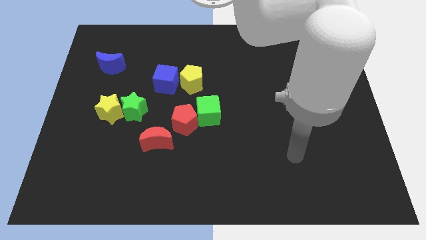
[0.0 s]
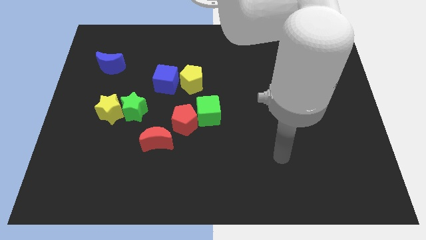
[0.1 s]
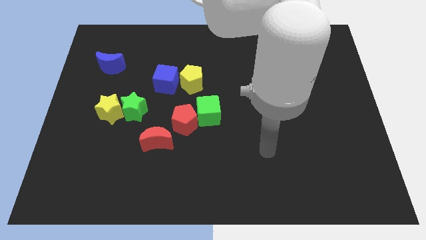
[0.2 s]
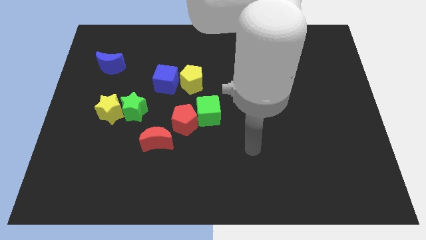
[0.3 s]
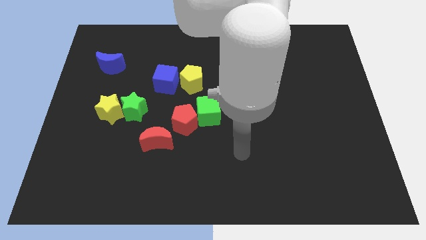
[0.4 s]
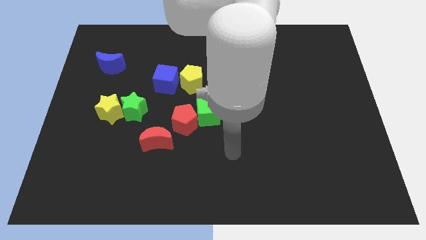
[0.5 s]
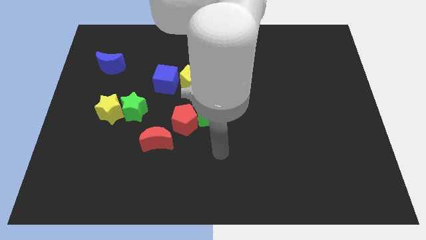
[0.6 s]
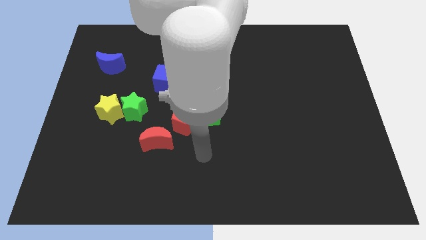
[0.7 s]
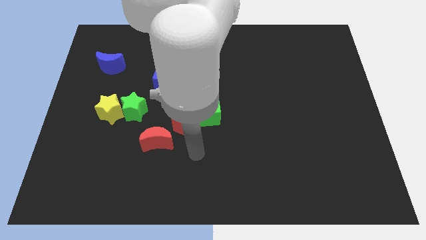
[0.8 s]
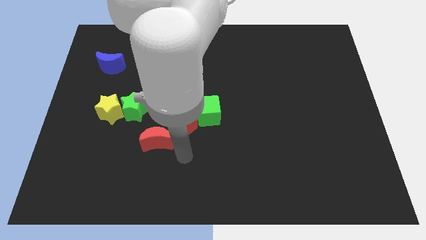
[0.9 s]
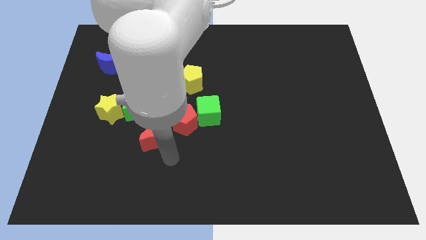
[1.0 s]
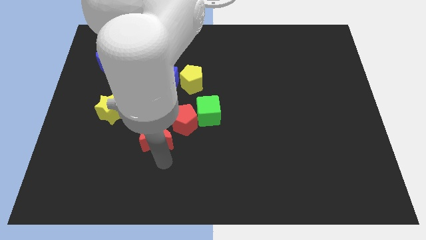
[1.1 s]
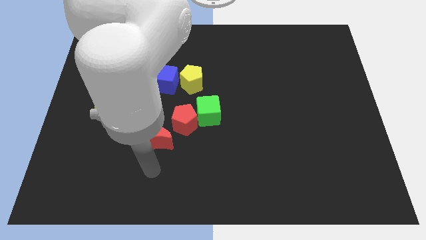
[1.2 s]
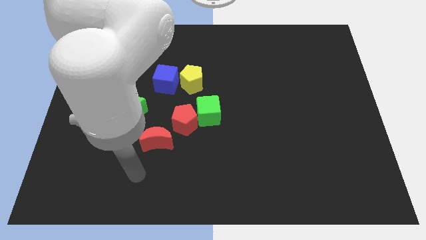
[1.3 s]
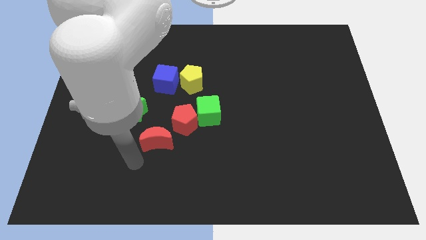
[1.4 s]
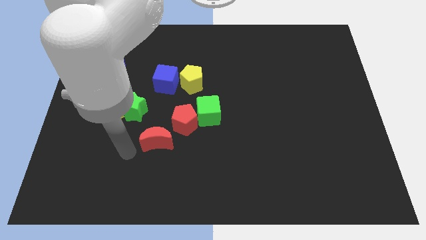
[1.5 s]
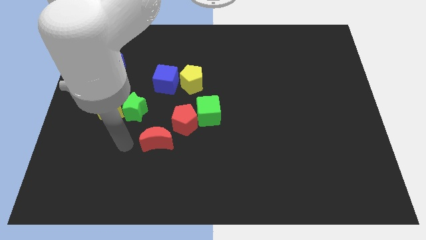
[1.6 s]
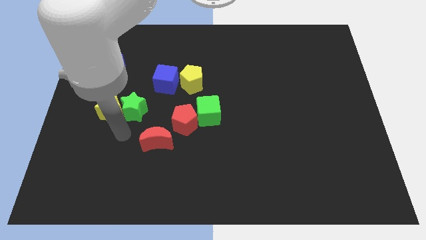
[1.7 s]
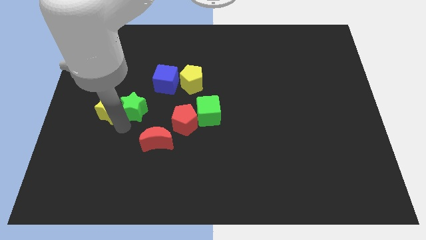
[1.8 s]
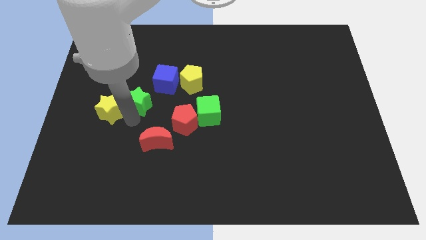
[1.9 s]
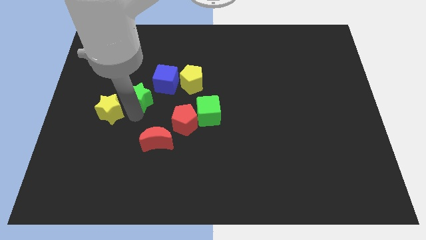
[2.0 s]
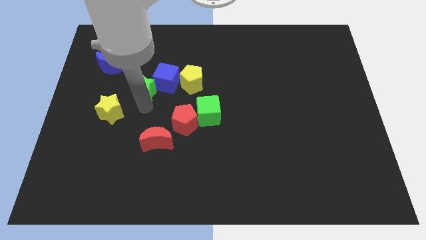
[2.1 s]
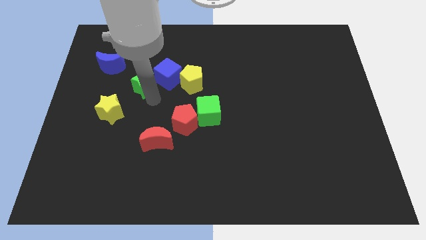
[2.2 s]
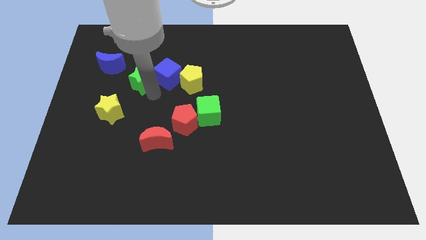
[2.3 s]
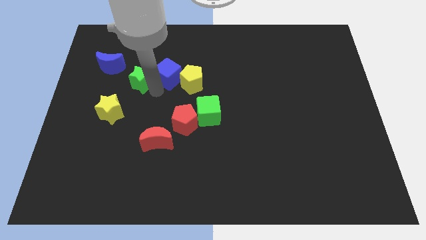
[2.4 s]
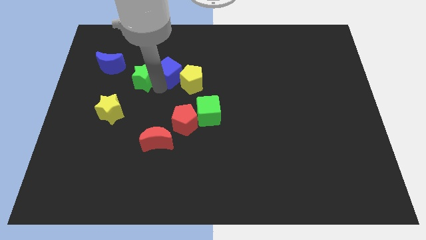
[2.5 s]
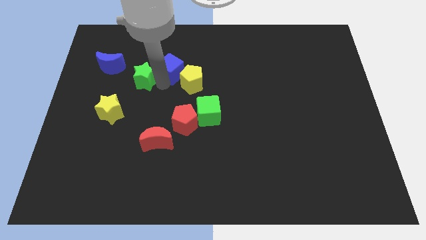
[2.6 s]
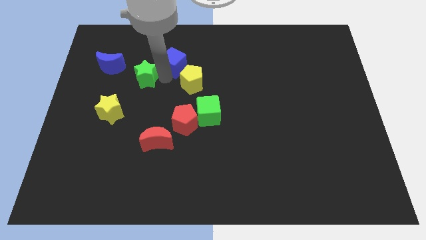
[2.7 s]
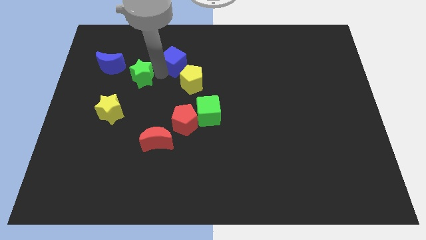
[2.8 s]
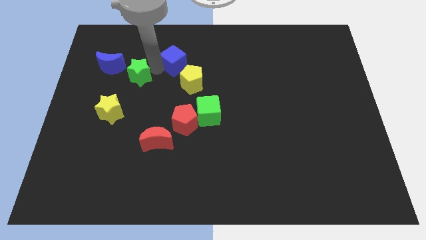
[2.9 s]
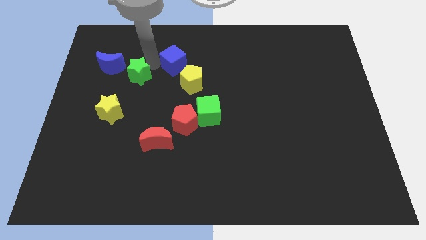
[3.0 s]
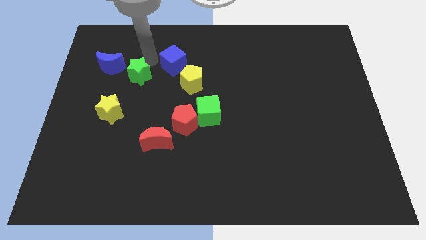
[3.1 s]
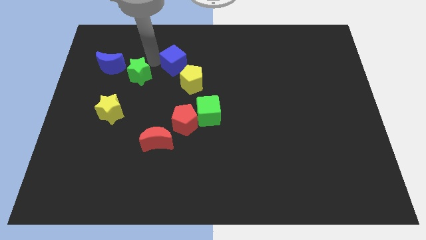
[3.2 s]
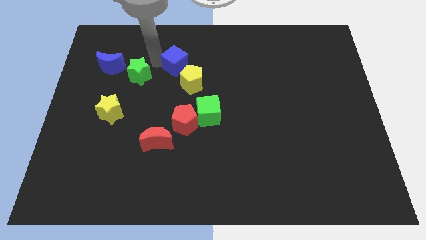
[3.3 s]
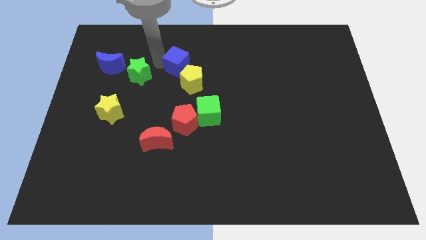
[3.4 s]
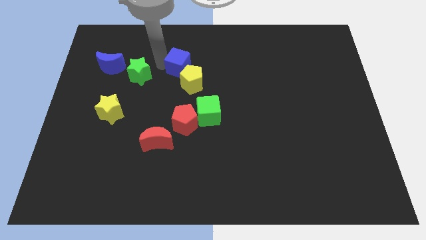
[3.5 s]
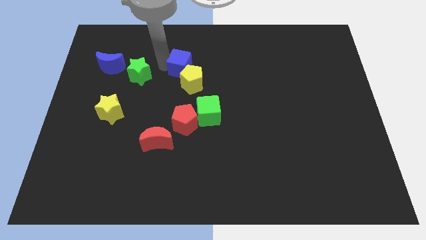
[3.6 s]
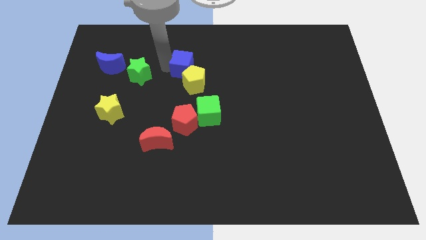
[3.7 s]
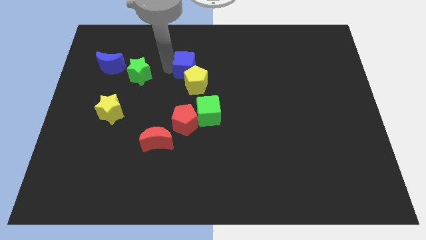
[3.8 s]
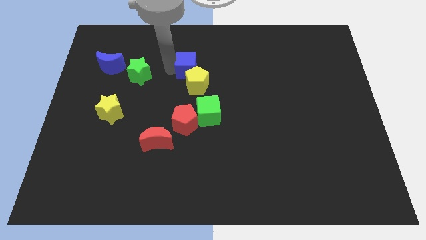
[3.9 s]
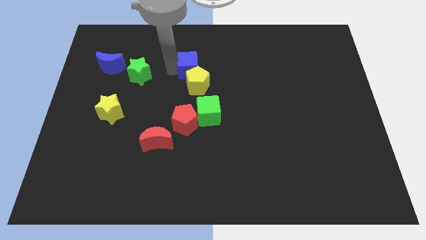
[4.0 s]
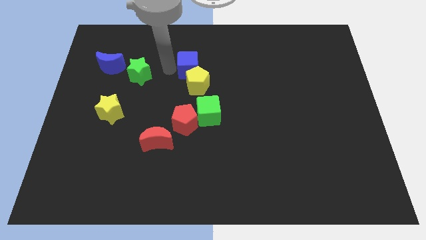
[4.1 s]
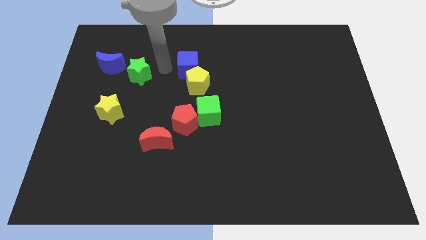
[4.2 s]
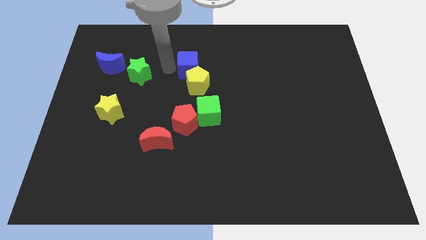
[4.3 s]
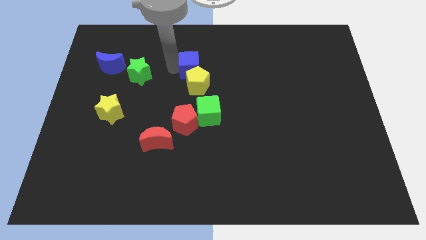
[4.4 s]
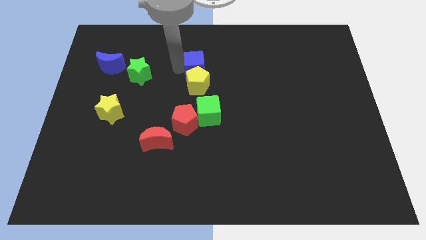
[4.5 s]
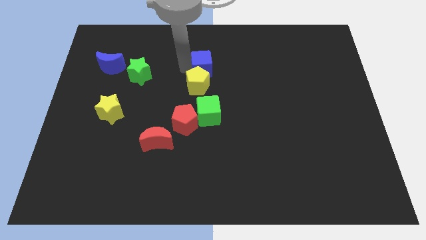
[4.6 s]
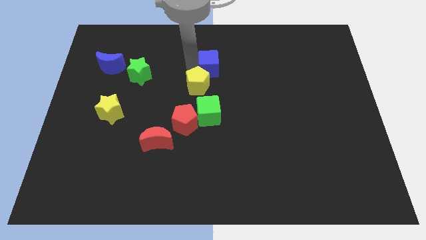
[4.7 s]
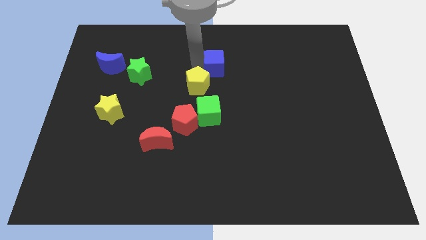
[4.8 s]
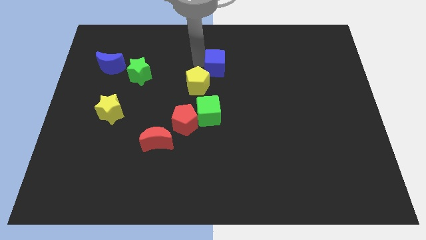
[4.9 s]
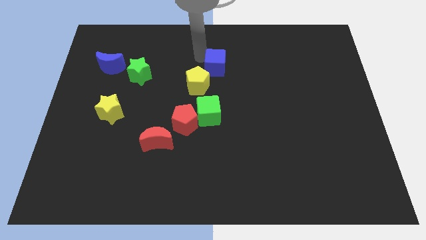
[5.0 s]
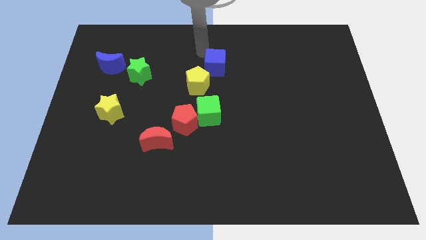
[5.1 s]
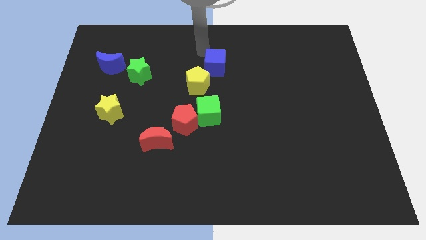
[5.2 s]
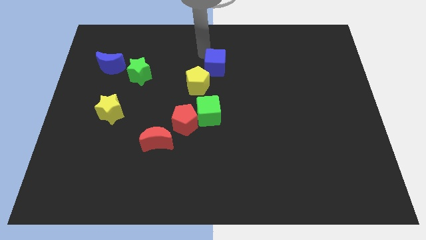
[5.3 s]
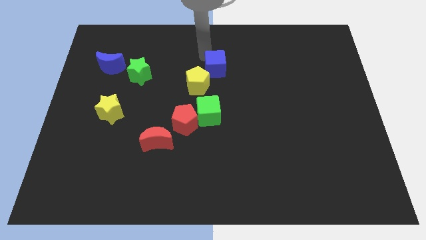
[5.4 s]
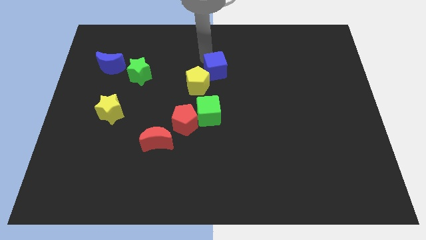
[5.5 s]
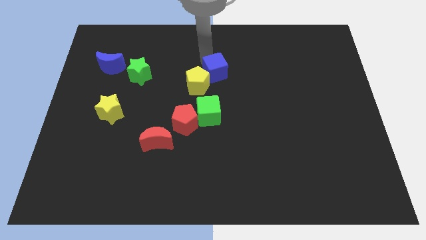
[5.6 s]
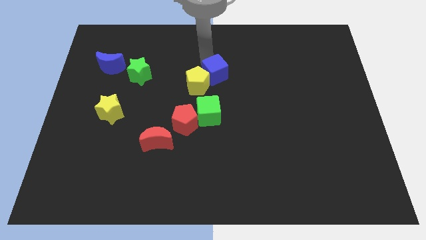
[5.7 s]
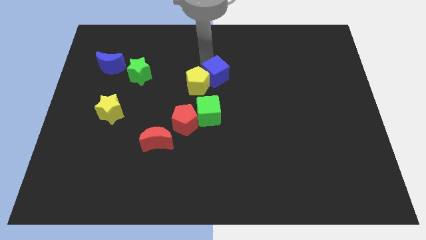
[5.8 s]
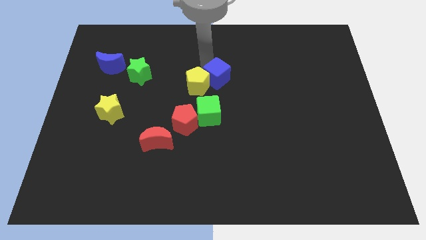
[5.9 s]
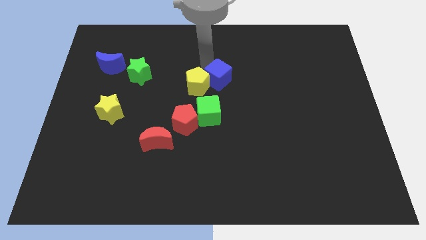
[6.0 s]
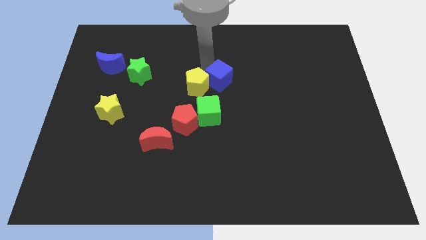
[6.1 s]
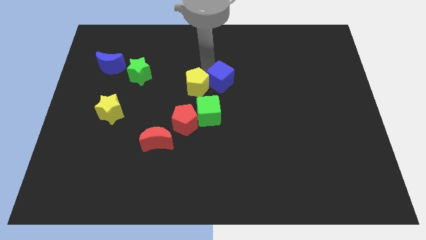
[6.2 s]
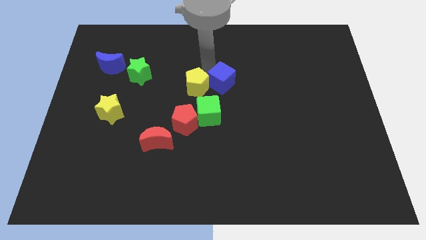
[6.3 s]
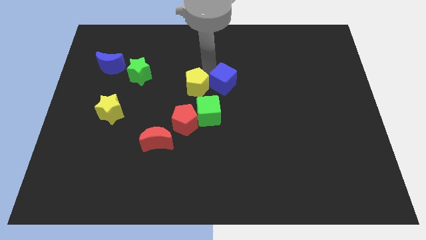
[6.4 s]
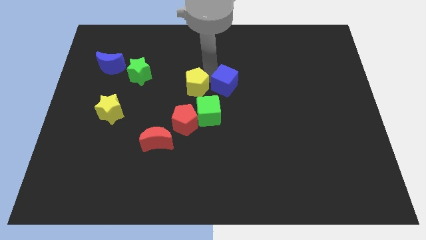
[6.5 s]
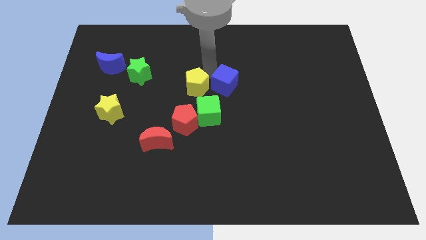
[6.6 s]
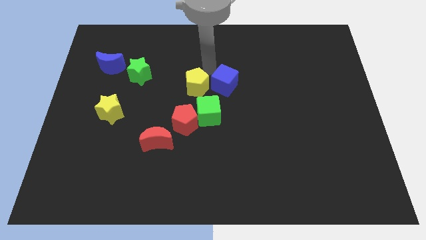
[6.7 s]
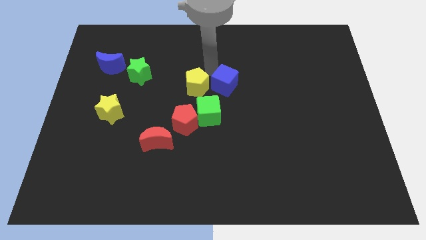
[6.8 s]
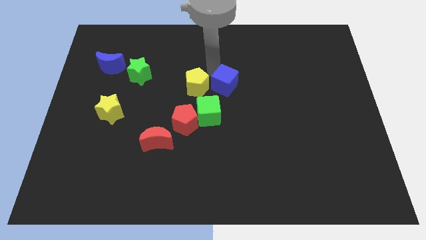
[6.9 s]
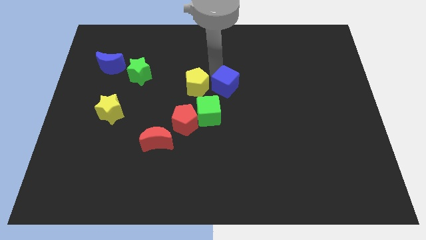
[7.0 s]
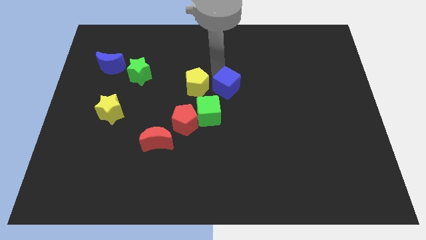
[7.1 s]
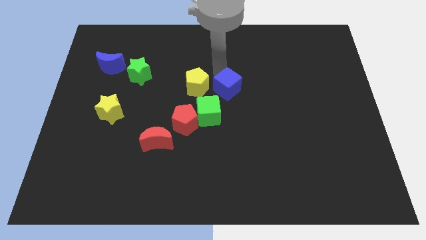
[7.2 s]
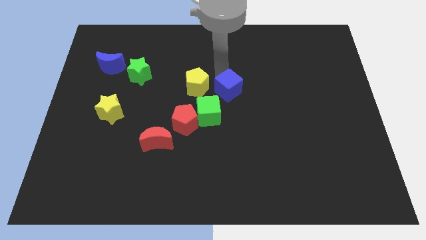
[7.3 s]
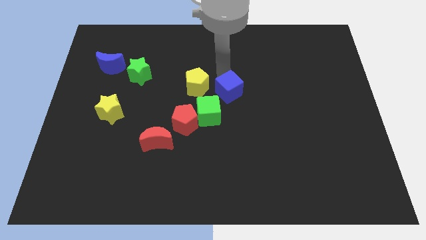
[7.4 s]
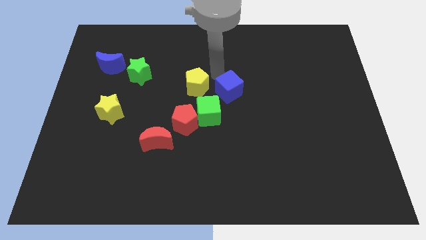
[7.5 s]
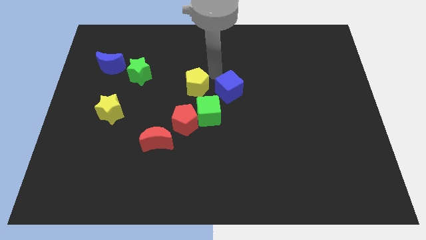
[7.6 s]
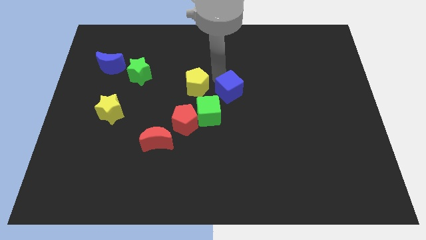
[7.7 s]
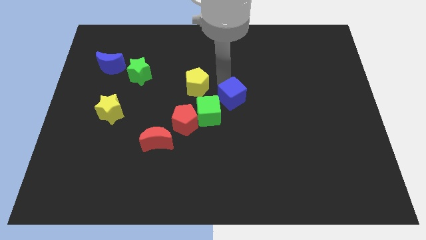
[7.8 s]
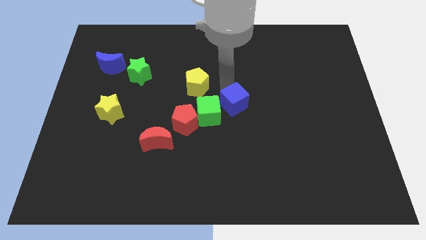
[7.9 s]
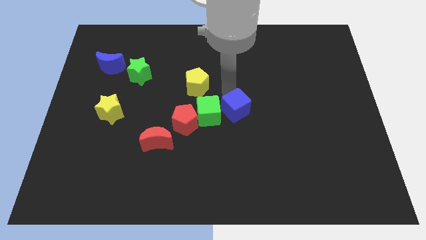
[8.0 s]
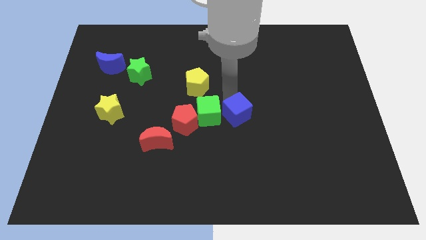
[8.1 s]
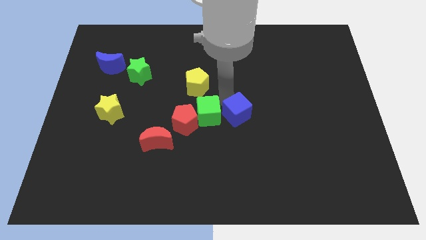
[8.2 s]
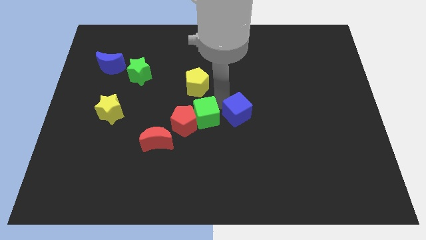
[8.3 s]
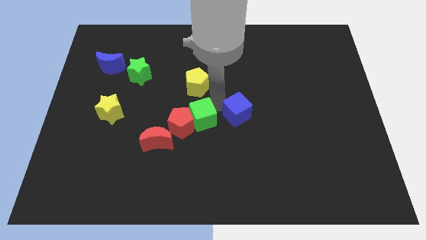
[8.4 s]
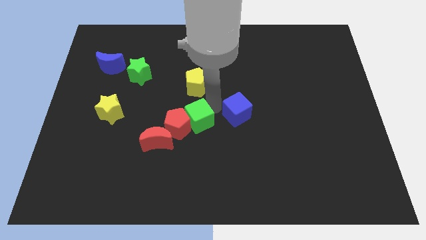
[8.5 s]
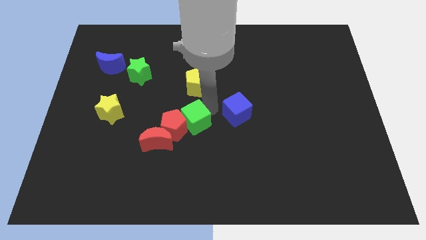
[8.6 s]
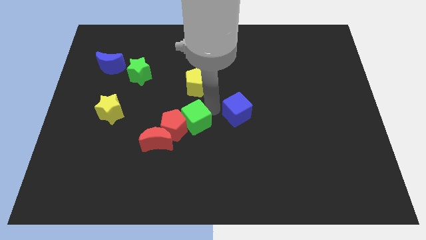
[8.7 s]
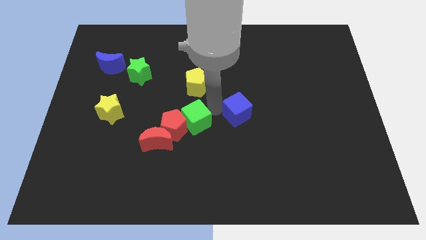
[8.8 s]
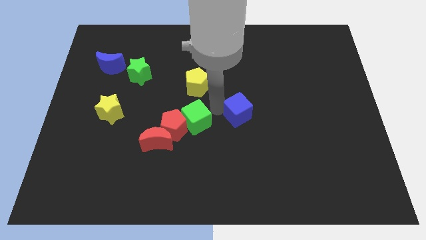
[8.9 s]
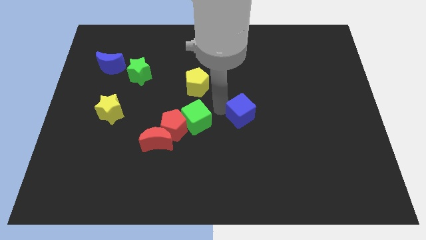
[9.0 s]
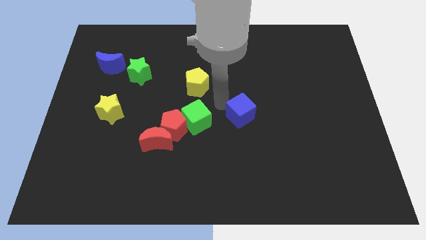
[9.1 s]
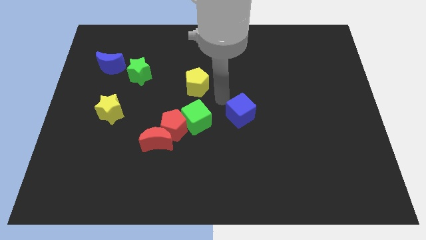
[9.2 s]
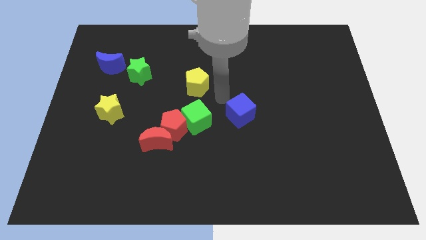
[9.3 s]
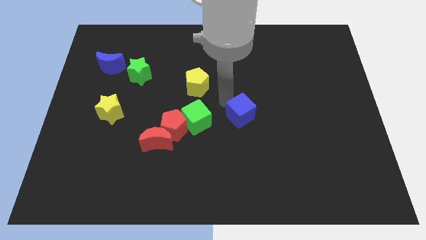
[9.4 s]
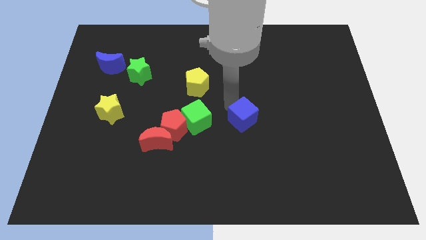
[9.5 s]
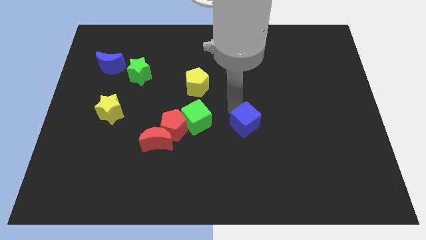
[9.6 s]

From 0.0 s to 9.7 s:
slide the blue cube down and then to the right
